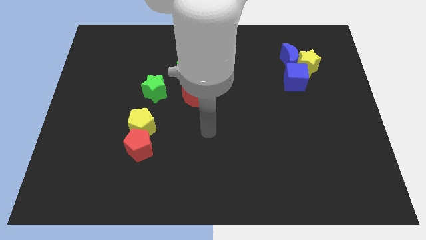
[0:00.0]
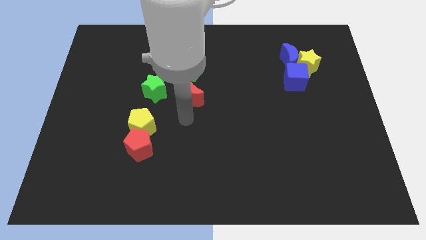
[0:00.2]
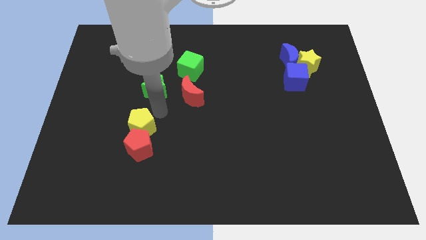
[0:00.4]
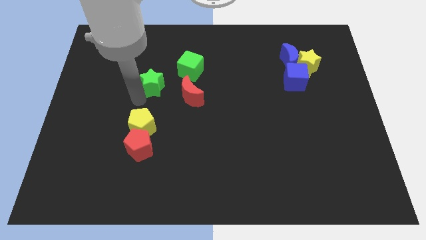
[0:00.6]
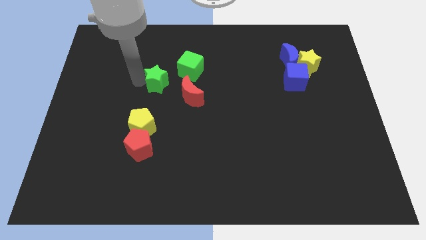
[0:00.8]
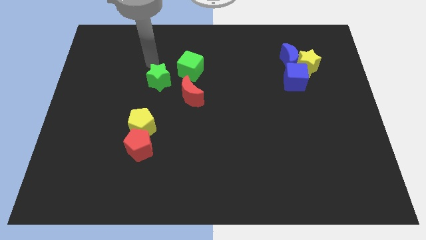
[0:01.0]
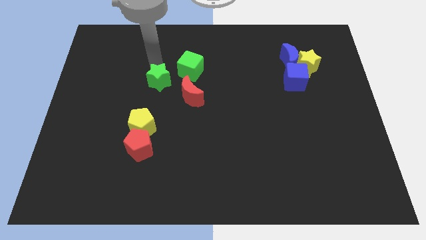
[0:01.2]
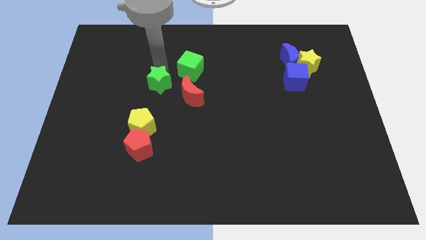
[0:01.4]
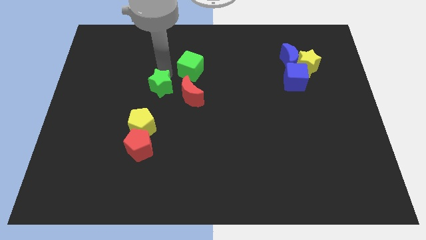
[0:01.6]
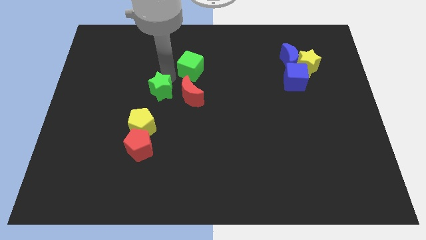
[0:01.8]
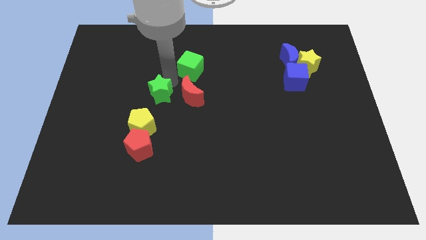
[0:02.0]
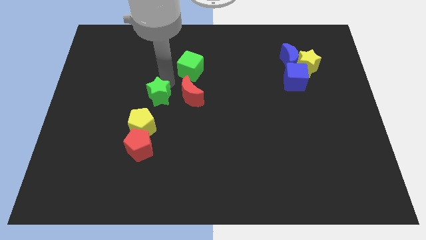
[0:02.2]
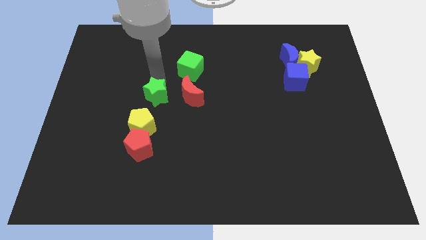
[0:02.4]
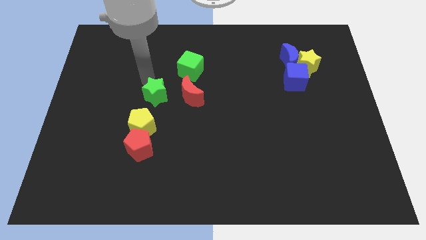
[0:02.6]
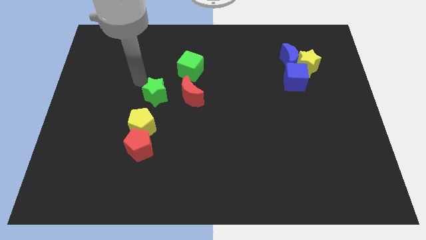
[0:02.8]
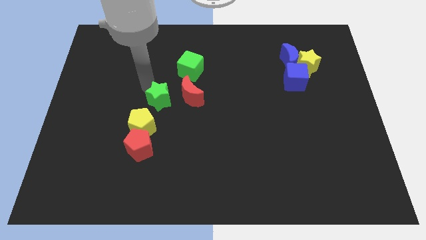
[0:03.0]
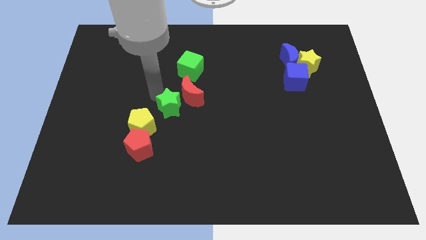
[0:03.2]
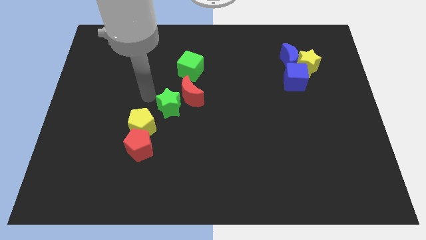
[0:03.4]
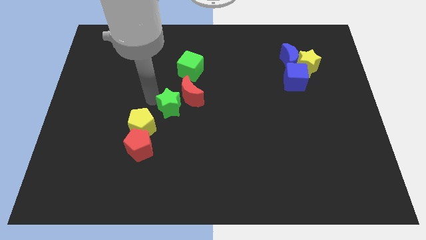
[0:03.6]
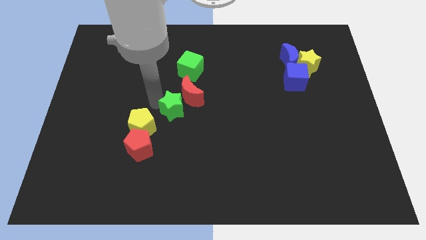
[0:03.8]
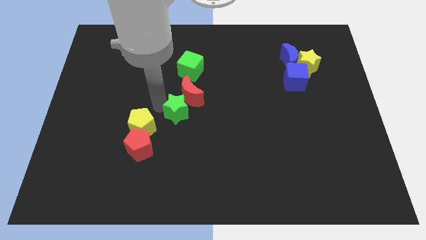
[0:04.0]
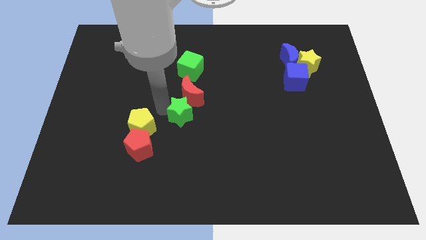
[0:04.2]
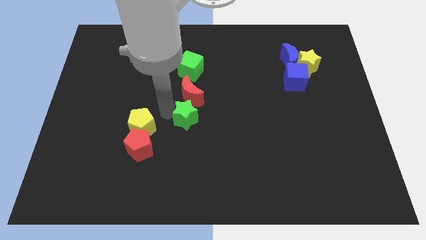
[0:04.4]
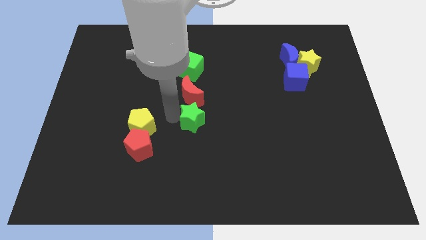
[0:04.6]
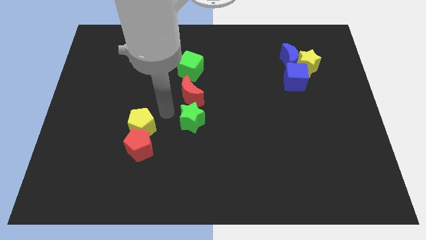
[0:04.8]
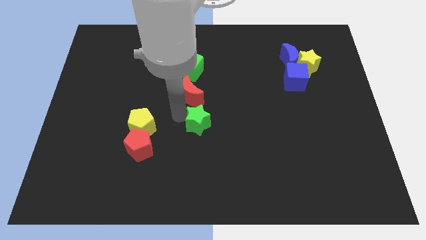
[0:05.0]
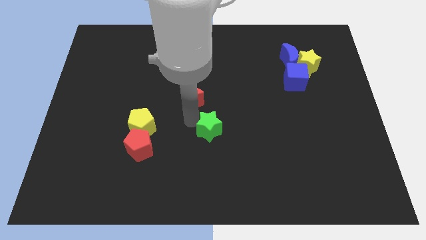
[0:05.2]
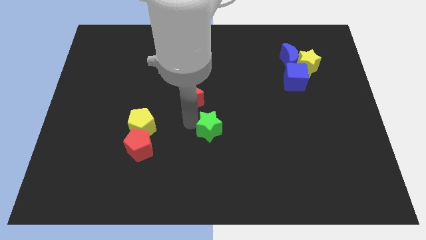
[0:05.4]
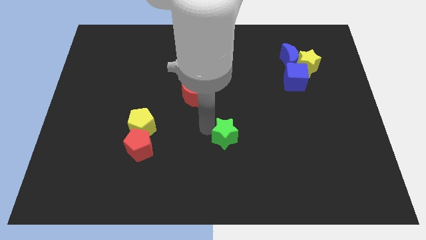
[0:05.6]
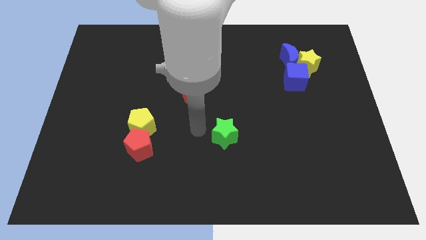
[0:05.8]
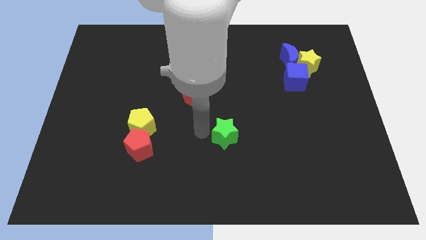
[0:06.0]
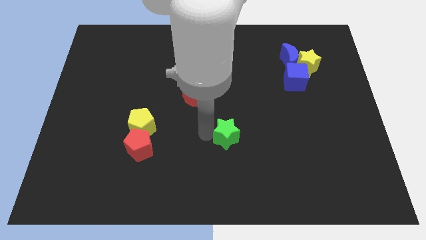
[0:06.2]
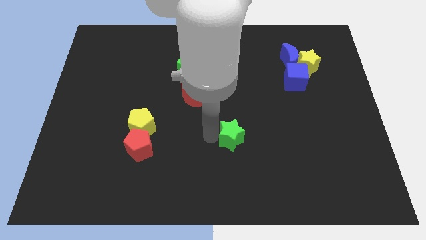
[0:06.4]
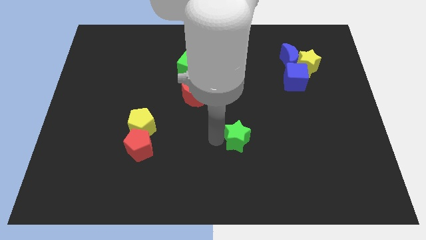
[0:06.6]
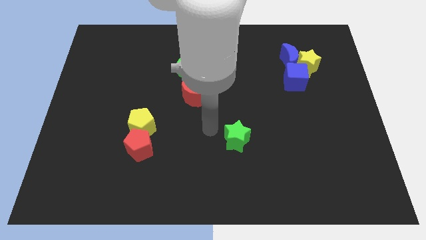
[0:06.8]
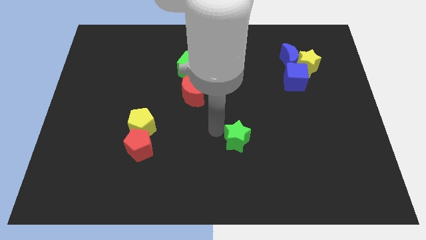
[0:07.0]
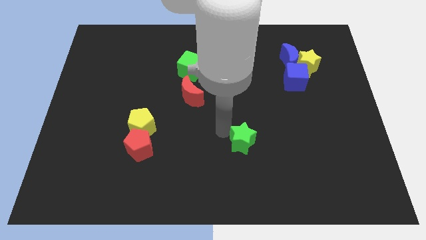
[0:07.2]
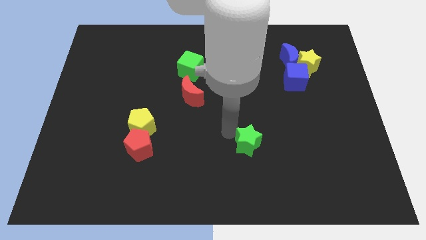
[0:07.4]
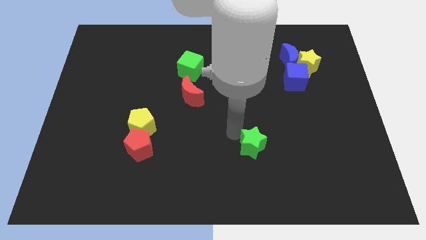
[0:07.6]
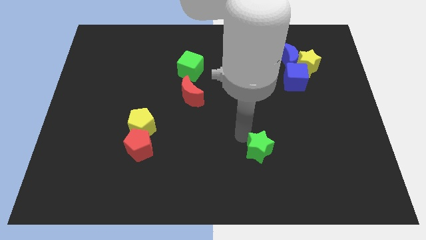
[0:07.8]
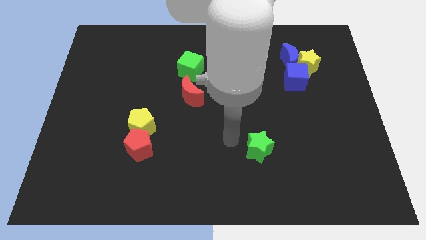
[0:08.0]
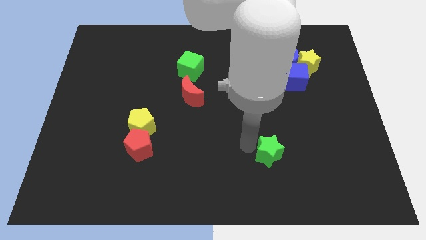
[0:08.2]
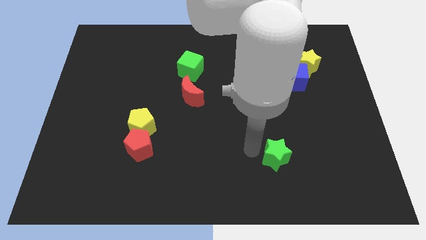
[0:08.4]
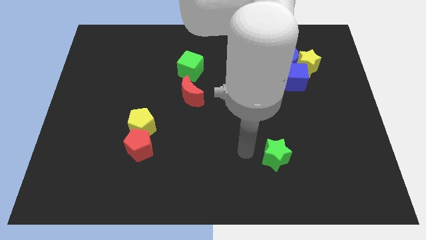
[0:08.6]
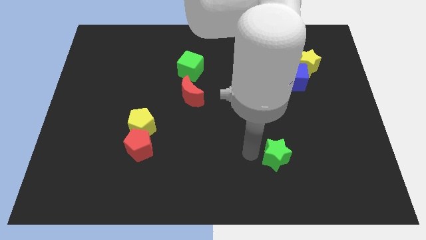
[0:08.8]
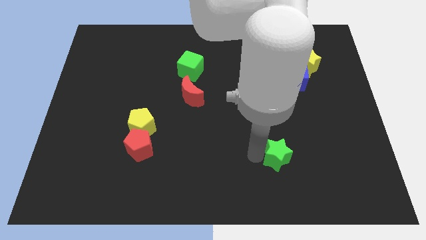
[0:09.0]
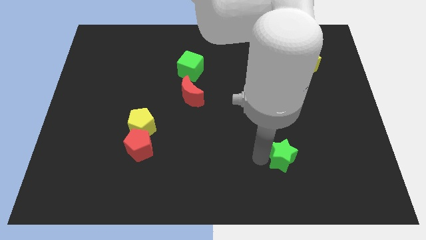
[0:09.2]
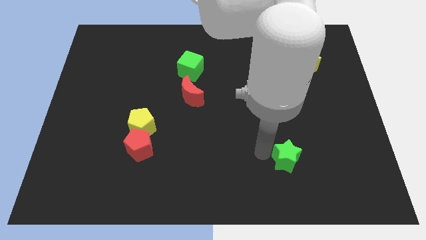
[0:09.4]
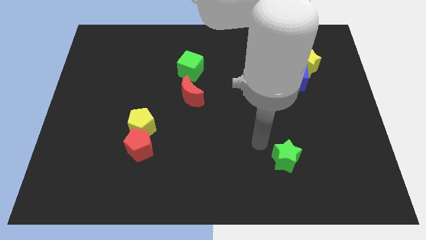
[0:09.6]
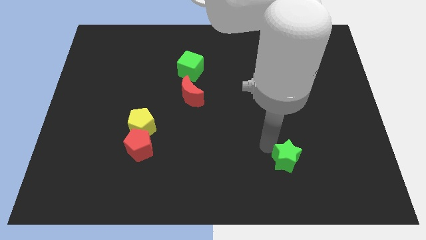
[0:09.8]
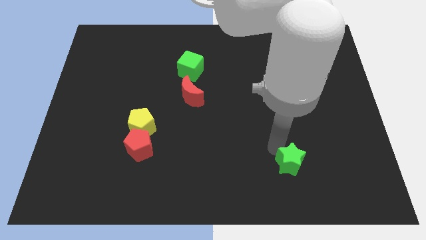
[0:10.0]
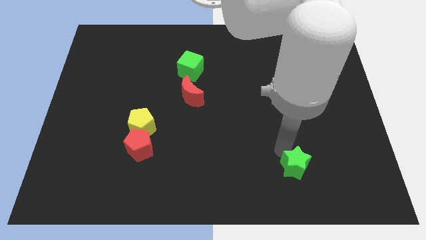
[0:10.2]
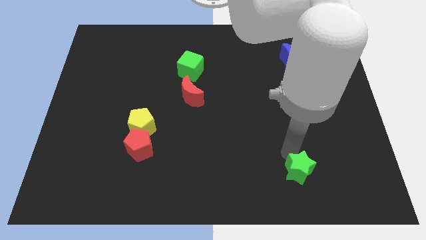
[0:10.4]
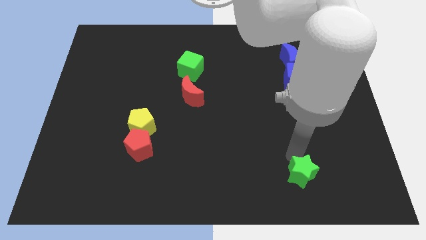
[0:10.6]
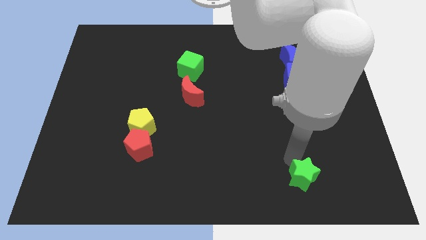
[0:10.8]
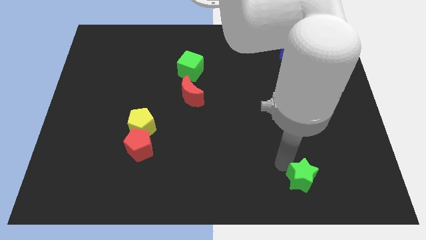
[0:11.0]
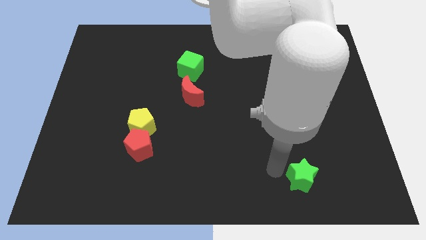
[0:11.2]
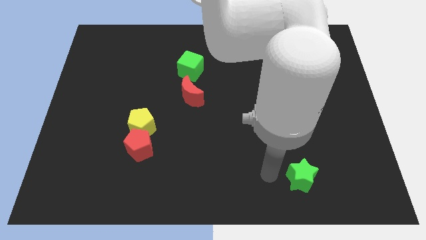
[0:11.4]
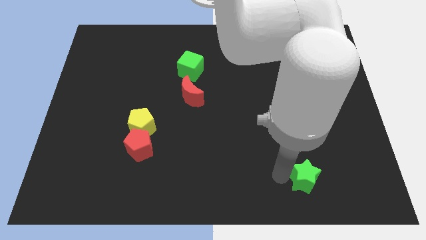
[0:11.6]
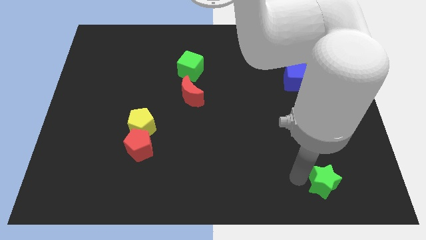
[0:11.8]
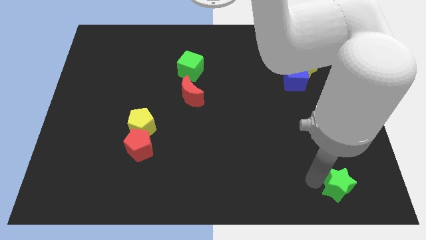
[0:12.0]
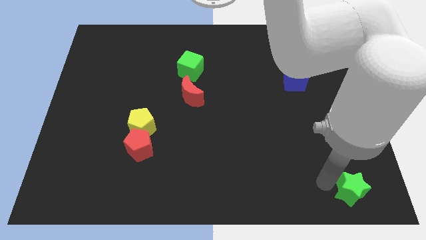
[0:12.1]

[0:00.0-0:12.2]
put the green star to the bottom right

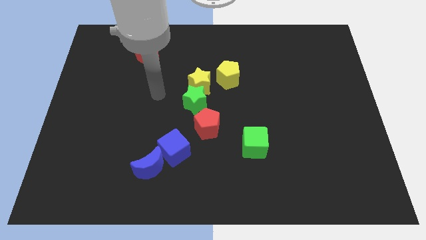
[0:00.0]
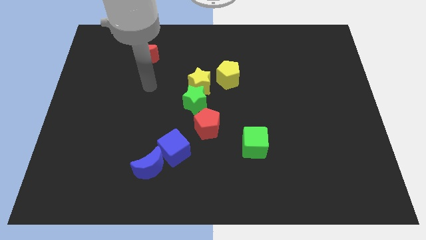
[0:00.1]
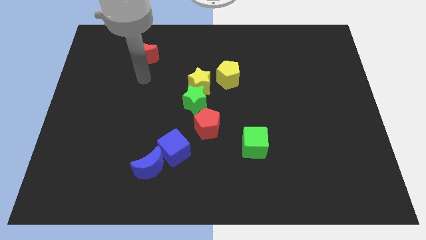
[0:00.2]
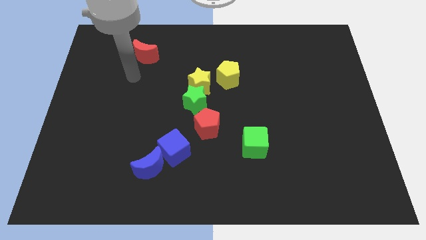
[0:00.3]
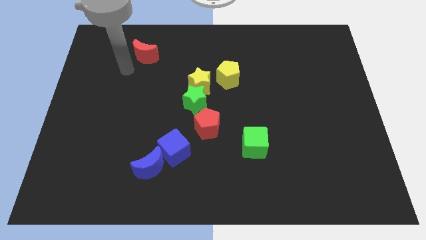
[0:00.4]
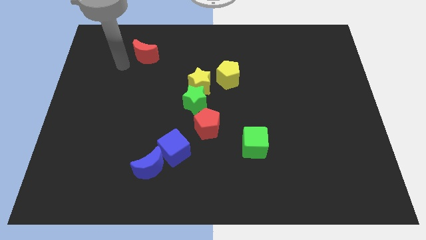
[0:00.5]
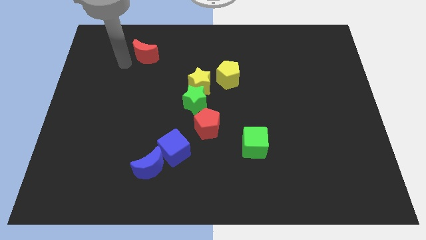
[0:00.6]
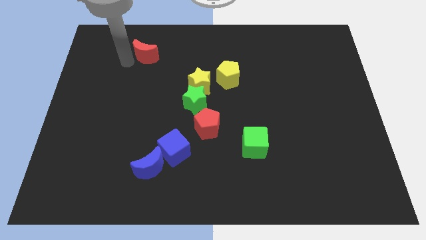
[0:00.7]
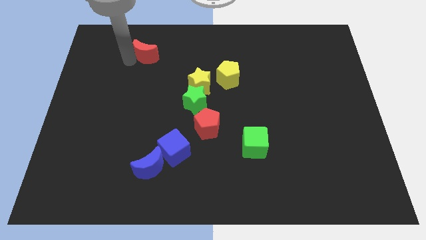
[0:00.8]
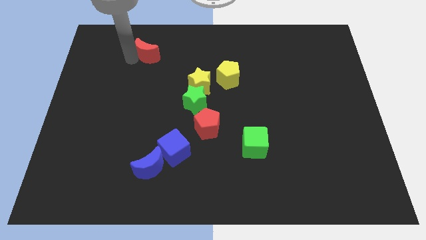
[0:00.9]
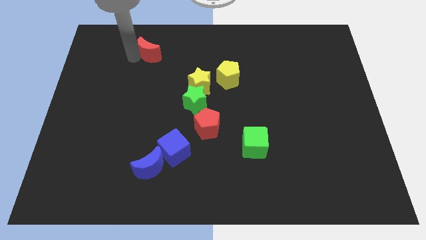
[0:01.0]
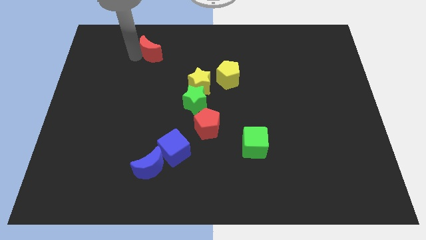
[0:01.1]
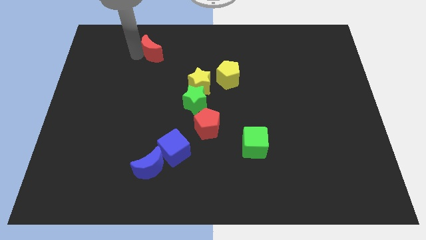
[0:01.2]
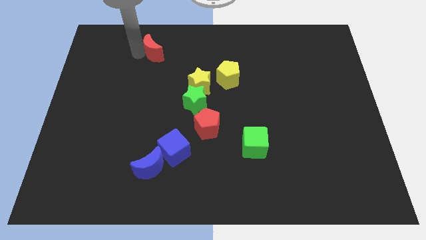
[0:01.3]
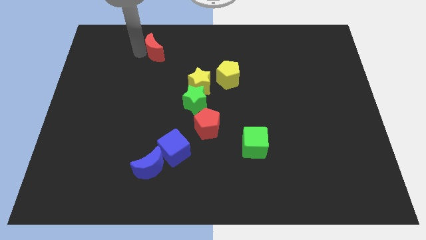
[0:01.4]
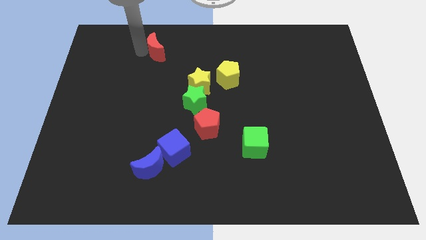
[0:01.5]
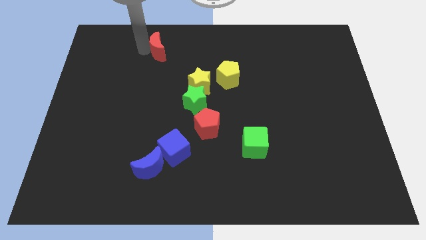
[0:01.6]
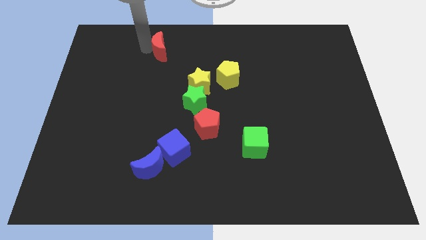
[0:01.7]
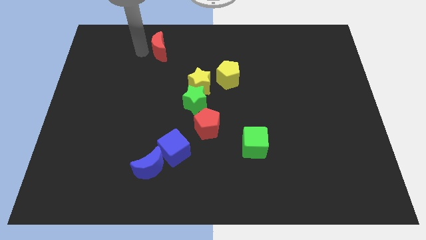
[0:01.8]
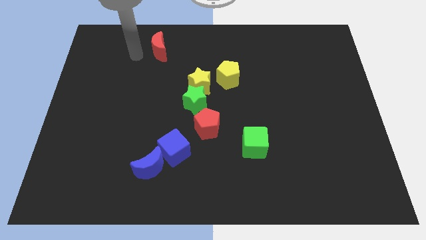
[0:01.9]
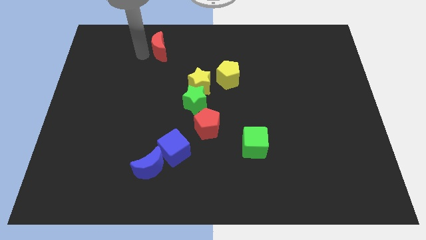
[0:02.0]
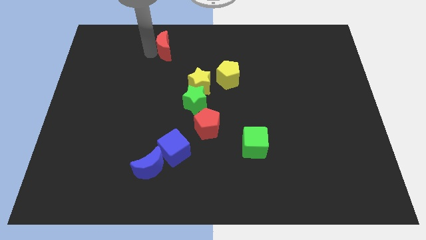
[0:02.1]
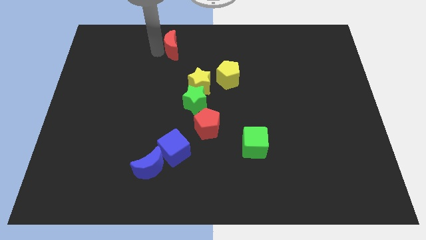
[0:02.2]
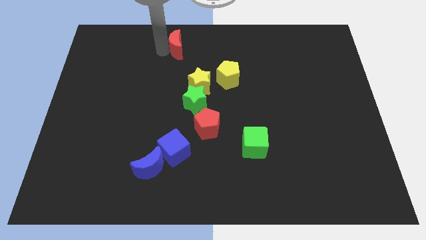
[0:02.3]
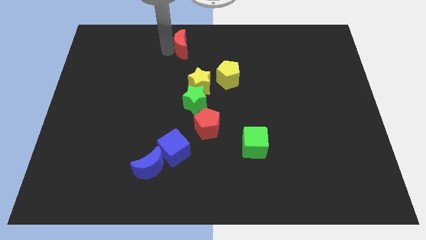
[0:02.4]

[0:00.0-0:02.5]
push the red moon to the top
